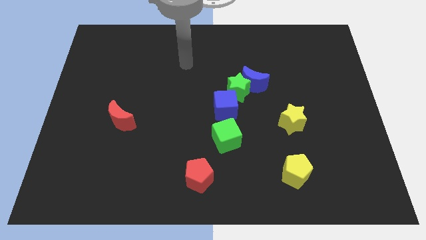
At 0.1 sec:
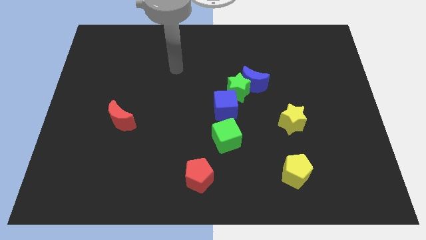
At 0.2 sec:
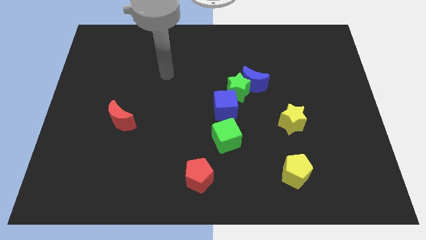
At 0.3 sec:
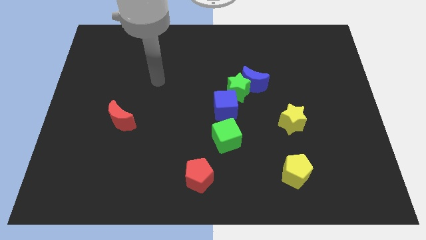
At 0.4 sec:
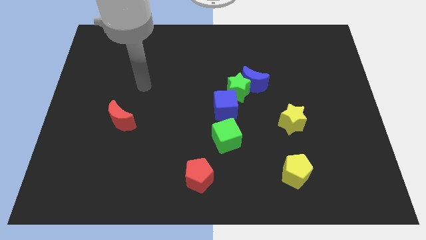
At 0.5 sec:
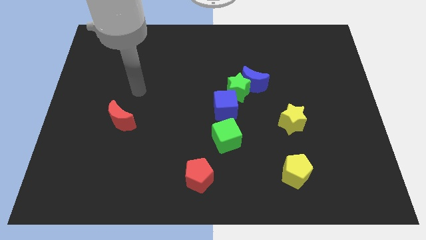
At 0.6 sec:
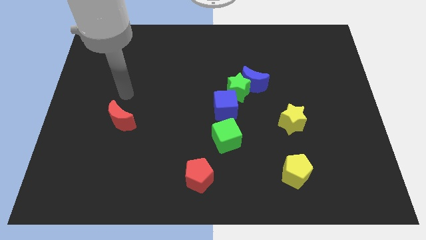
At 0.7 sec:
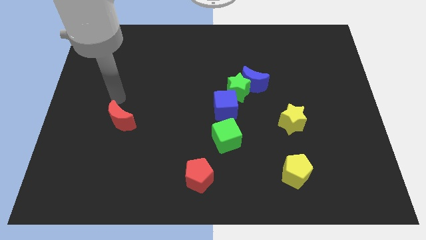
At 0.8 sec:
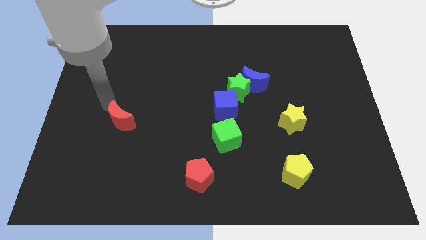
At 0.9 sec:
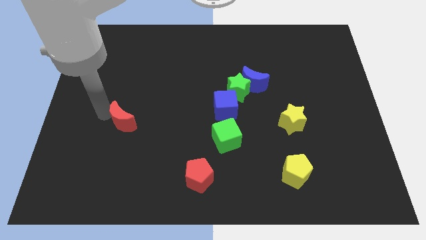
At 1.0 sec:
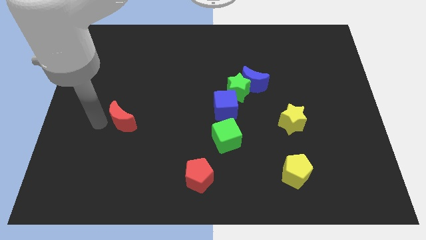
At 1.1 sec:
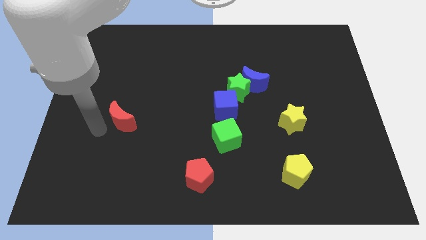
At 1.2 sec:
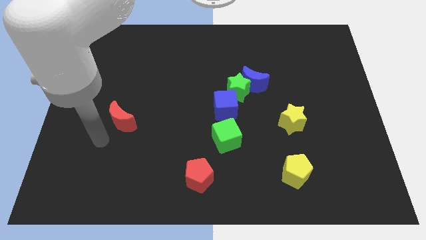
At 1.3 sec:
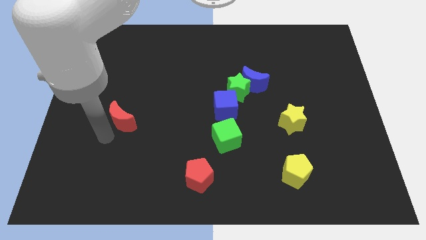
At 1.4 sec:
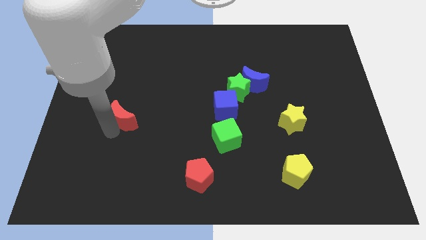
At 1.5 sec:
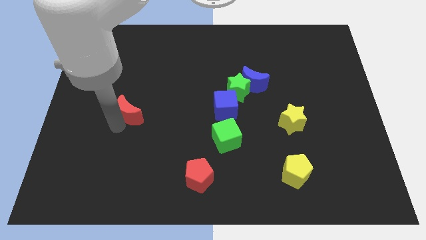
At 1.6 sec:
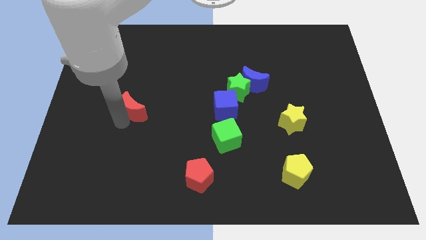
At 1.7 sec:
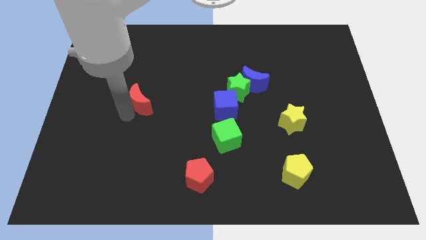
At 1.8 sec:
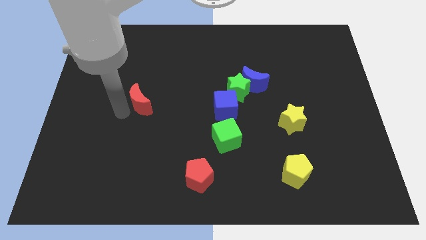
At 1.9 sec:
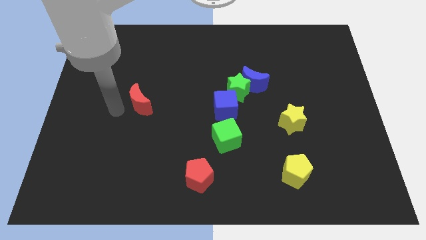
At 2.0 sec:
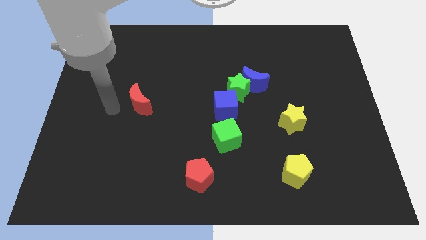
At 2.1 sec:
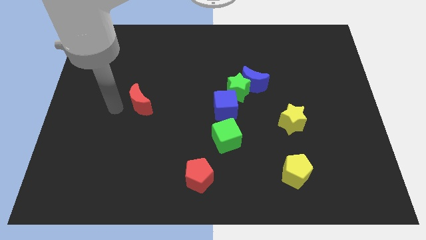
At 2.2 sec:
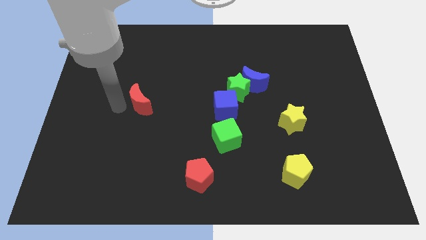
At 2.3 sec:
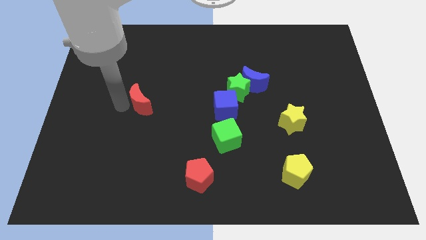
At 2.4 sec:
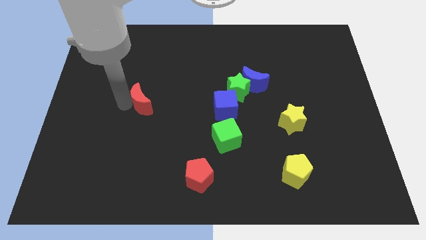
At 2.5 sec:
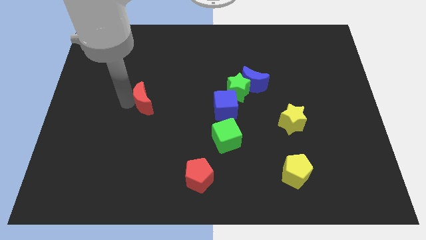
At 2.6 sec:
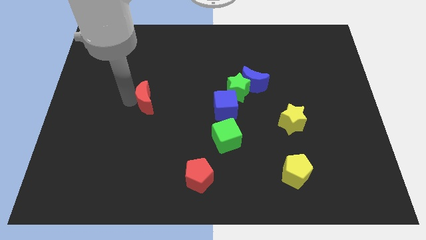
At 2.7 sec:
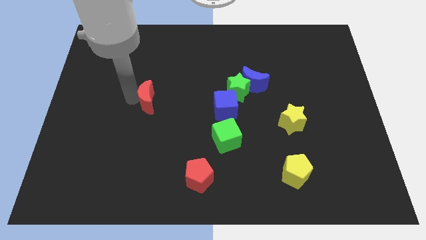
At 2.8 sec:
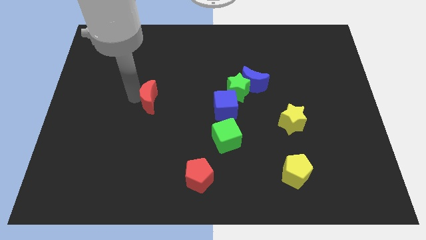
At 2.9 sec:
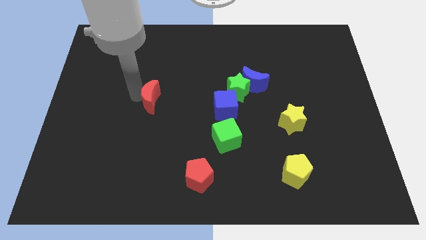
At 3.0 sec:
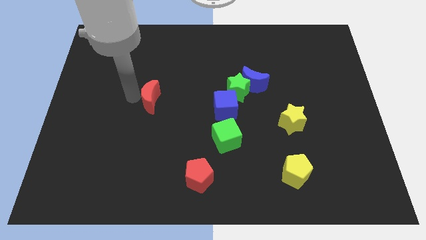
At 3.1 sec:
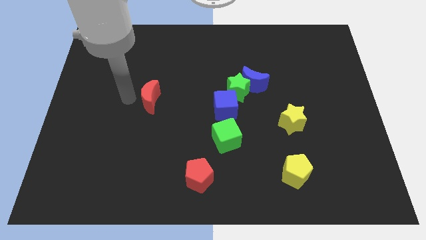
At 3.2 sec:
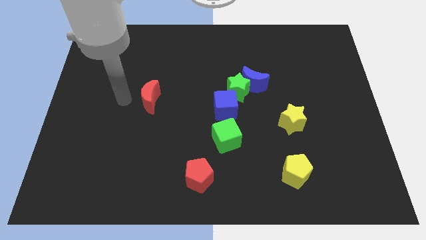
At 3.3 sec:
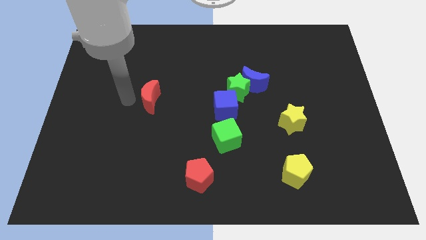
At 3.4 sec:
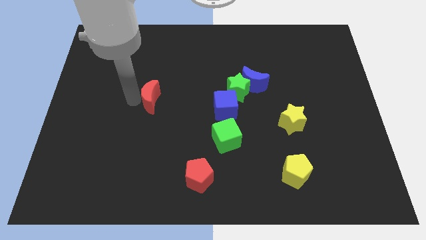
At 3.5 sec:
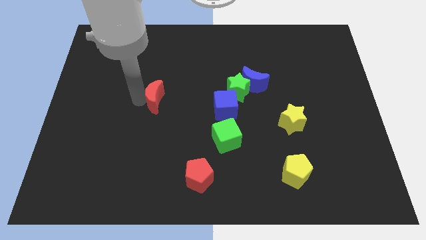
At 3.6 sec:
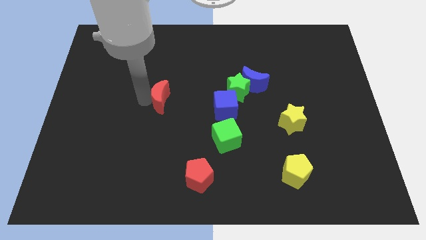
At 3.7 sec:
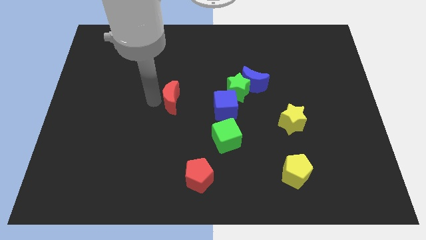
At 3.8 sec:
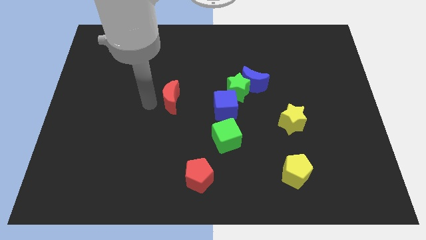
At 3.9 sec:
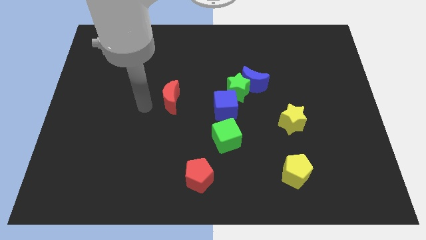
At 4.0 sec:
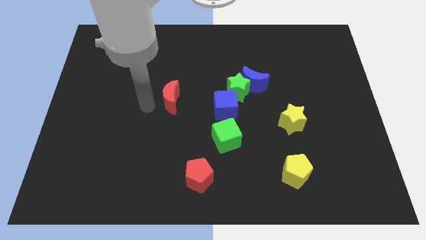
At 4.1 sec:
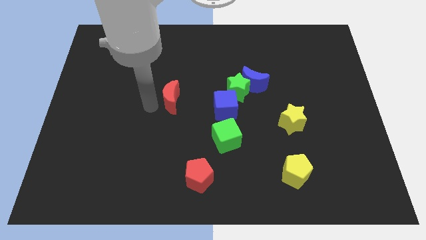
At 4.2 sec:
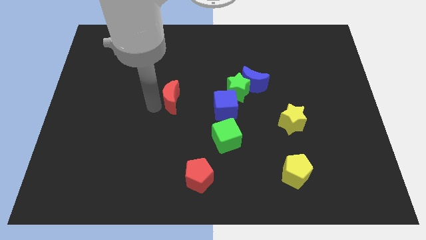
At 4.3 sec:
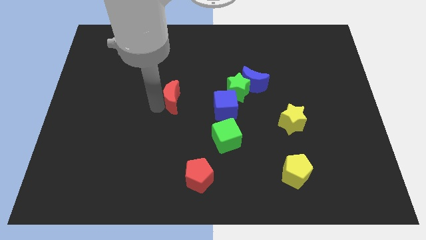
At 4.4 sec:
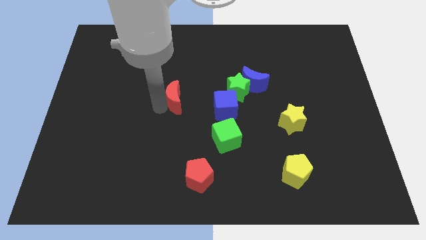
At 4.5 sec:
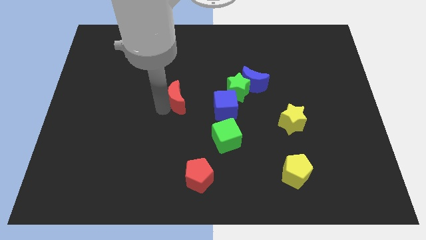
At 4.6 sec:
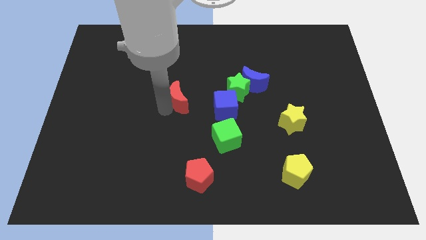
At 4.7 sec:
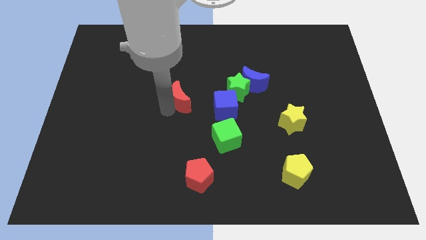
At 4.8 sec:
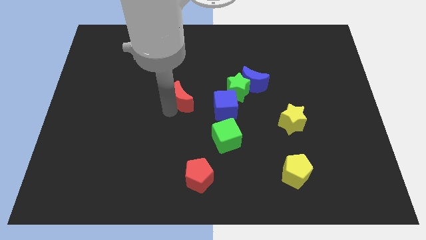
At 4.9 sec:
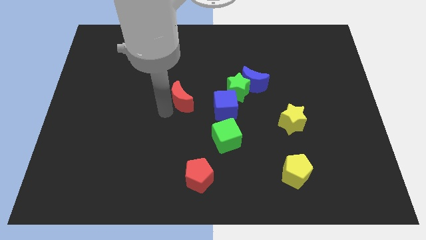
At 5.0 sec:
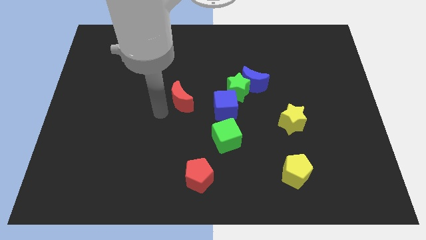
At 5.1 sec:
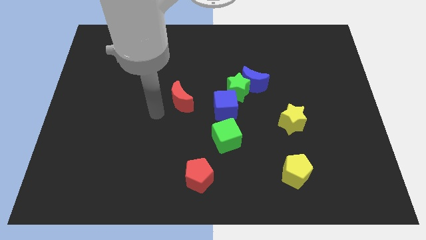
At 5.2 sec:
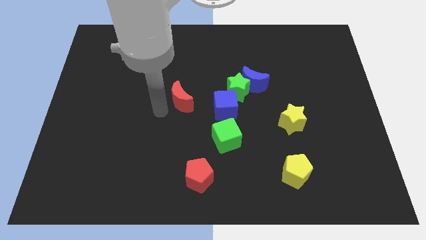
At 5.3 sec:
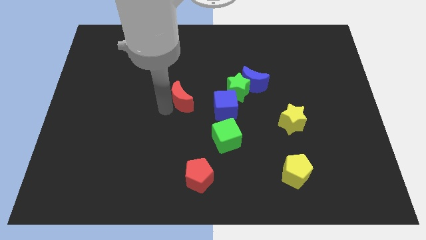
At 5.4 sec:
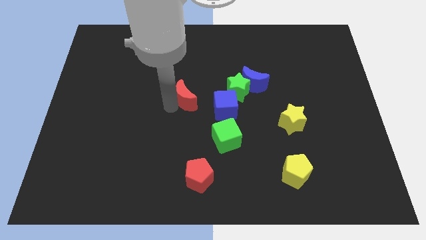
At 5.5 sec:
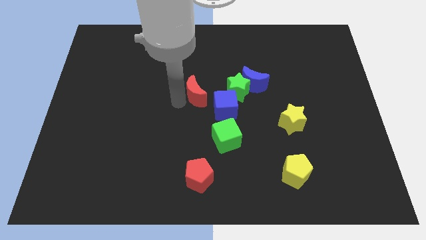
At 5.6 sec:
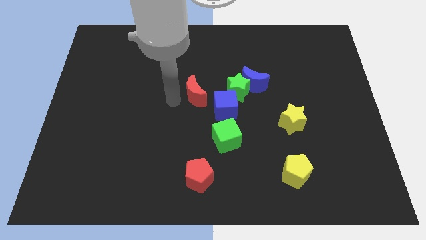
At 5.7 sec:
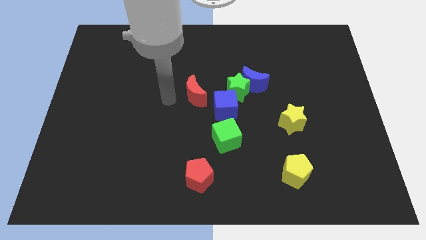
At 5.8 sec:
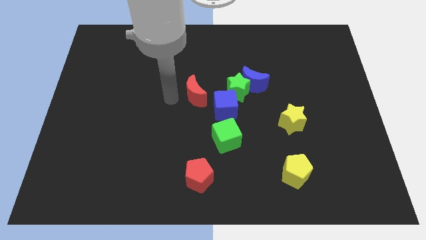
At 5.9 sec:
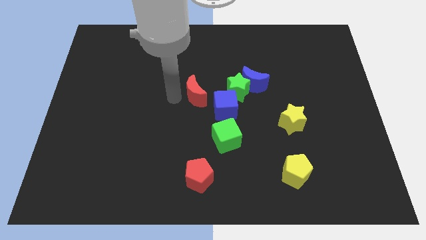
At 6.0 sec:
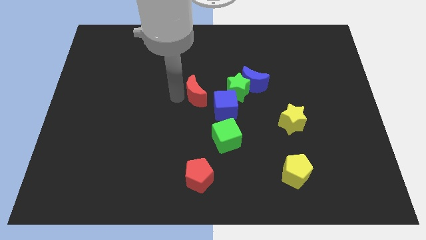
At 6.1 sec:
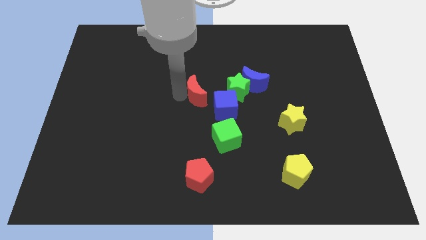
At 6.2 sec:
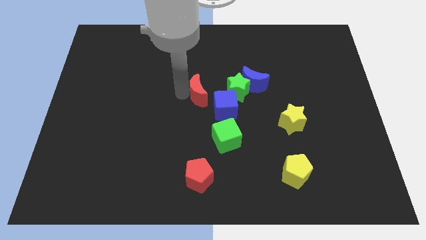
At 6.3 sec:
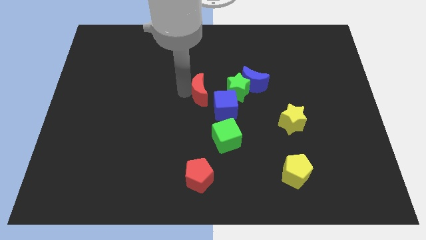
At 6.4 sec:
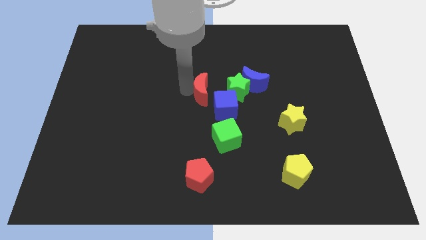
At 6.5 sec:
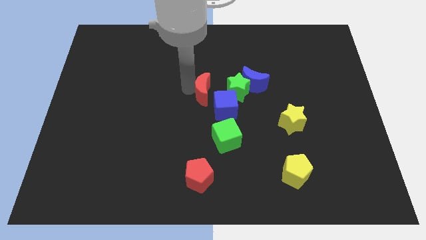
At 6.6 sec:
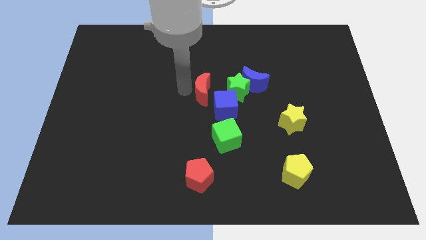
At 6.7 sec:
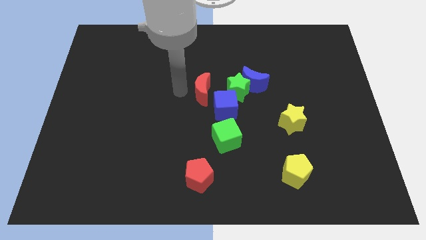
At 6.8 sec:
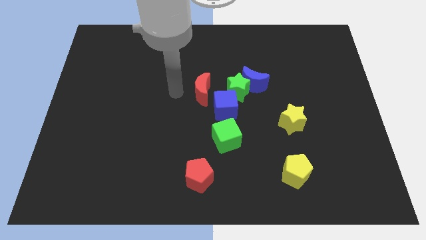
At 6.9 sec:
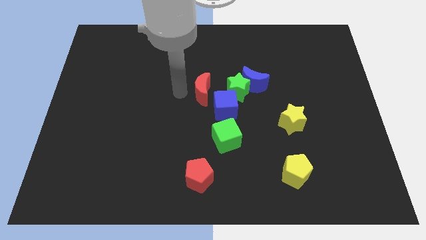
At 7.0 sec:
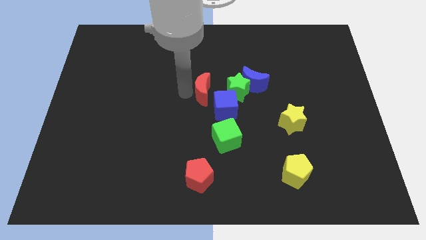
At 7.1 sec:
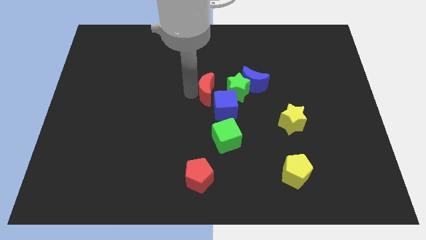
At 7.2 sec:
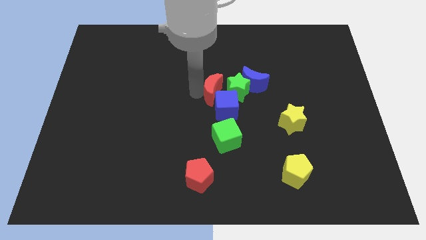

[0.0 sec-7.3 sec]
put the red moon close to the green star
